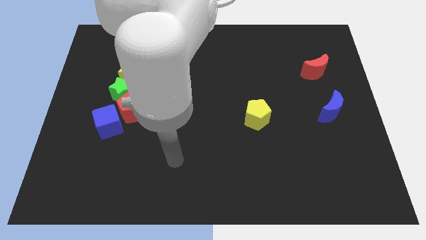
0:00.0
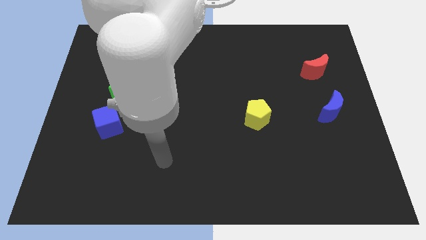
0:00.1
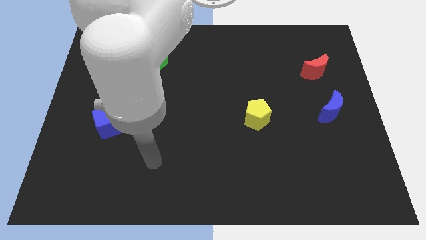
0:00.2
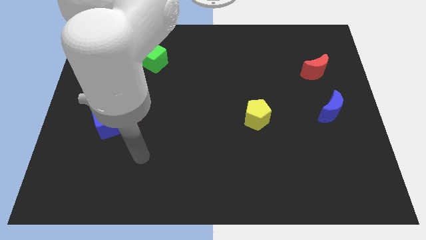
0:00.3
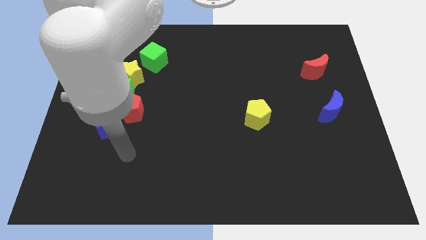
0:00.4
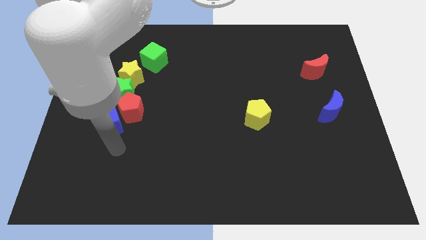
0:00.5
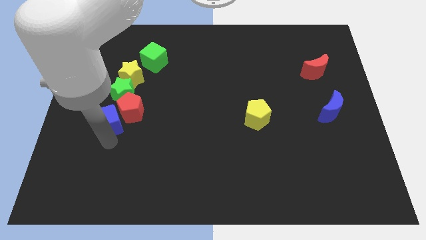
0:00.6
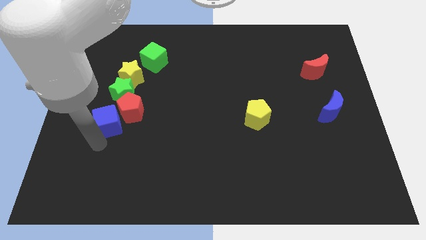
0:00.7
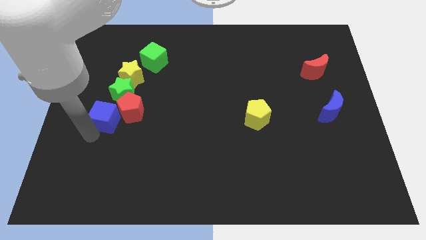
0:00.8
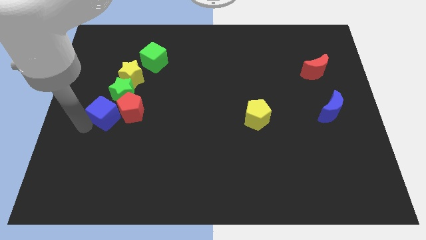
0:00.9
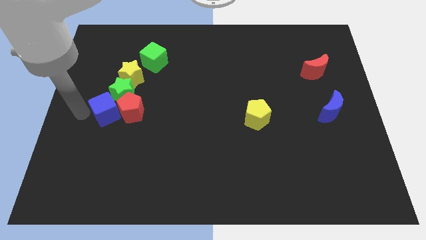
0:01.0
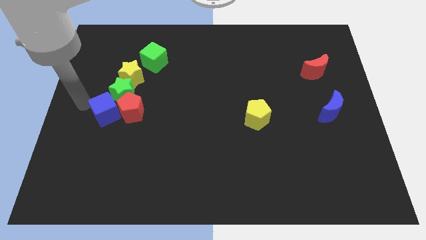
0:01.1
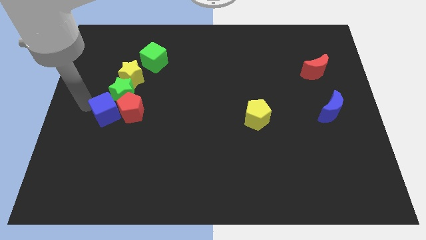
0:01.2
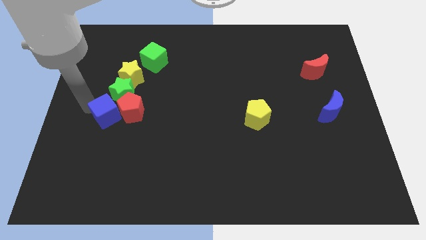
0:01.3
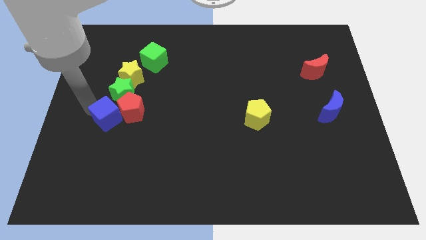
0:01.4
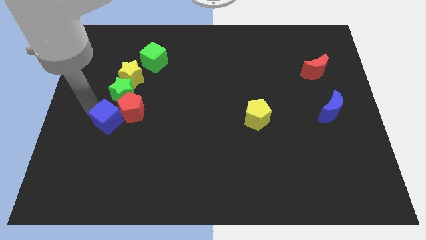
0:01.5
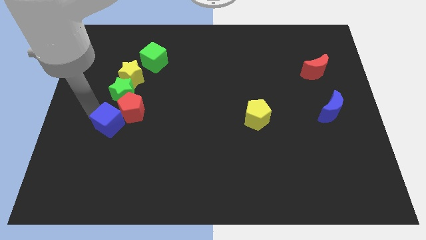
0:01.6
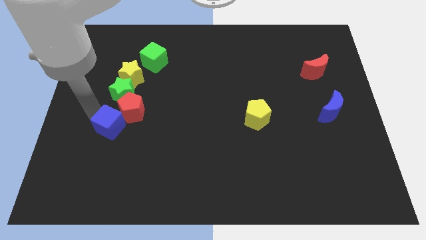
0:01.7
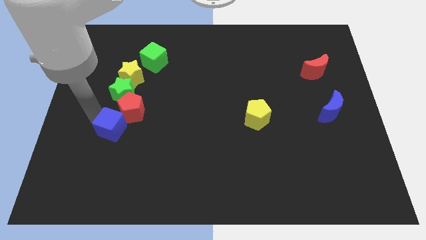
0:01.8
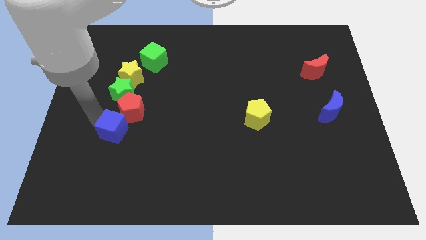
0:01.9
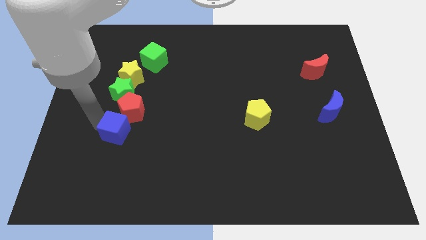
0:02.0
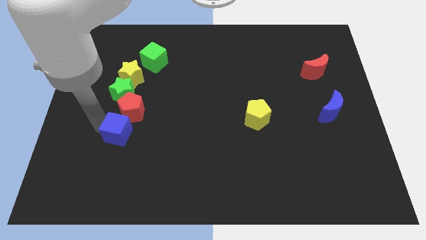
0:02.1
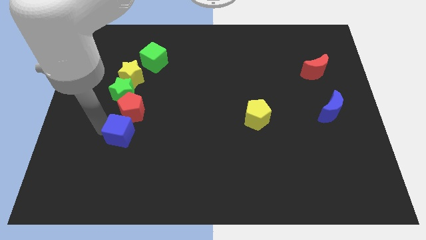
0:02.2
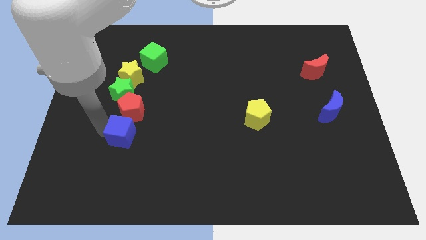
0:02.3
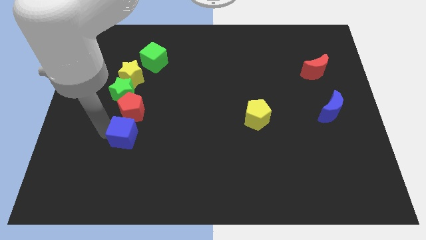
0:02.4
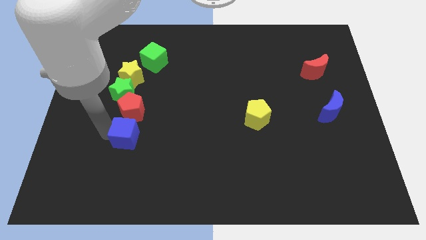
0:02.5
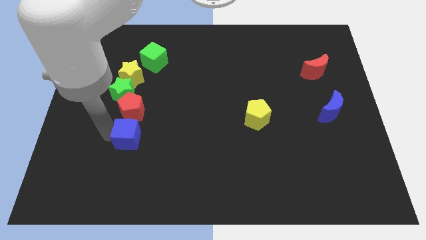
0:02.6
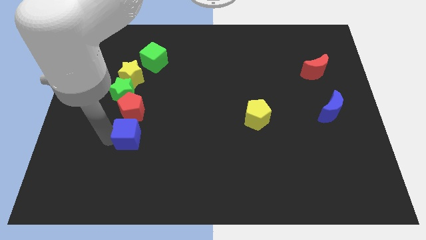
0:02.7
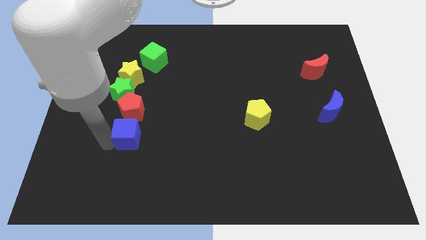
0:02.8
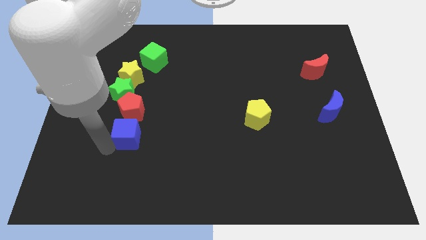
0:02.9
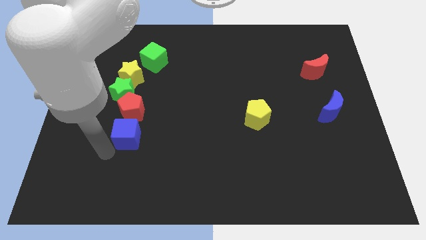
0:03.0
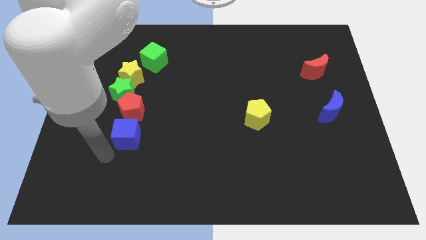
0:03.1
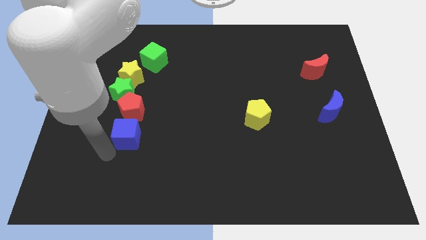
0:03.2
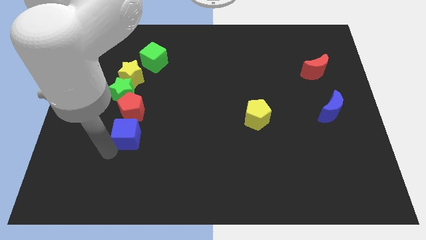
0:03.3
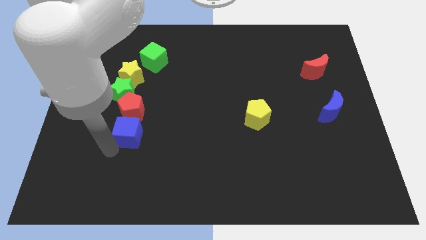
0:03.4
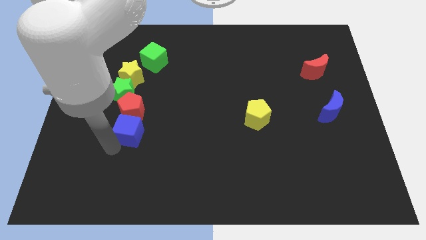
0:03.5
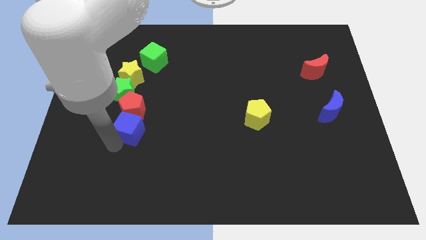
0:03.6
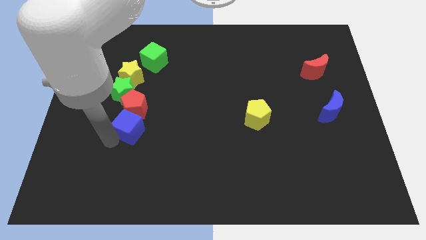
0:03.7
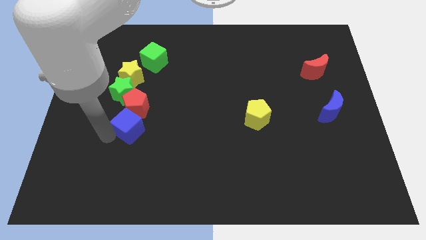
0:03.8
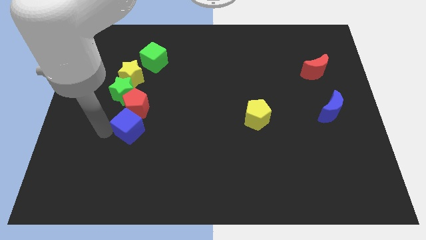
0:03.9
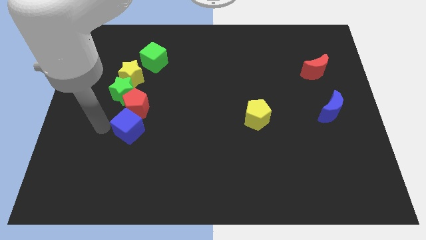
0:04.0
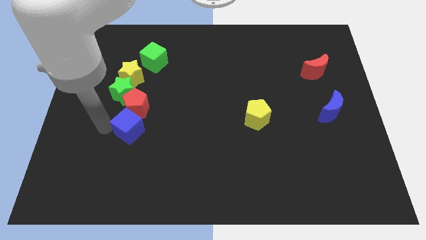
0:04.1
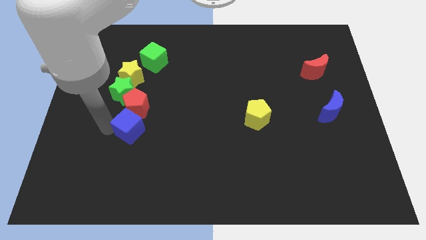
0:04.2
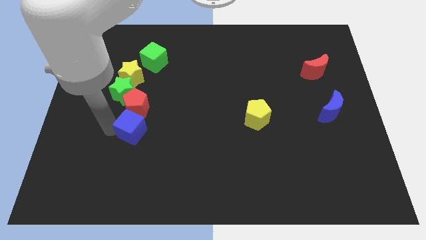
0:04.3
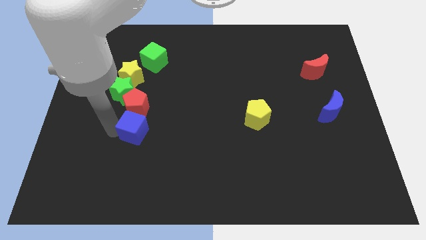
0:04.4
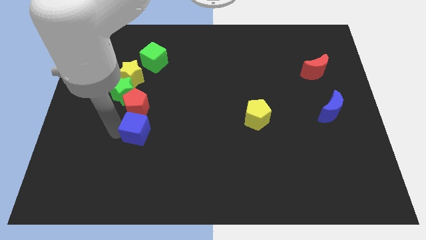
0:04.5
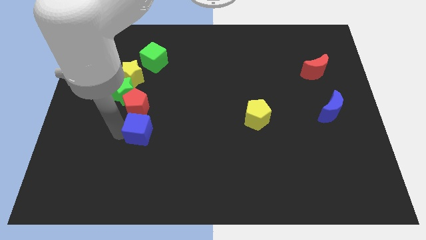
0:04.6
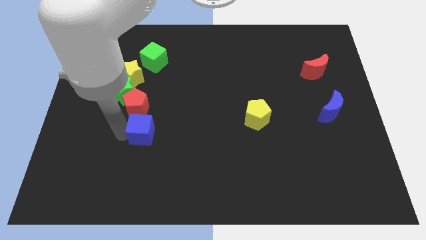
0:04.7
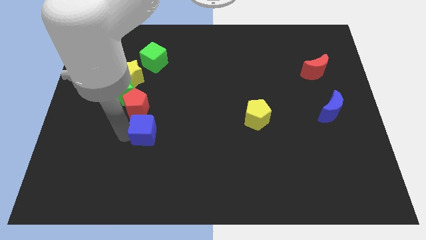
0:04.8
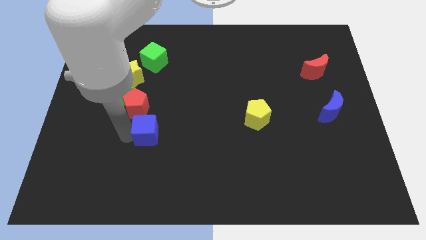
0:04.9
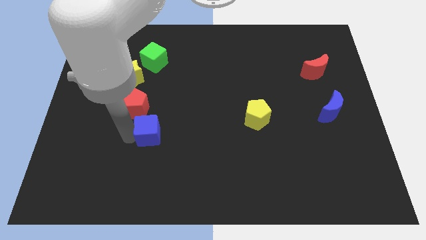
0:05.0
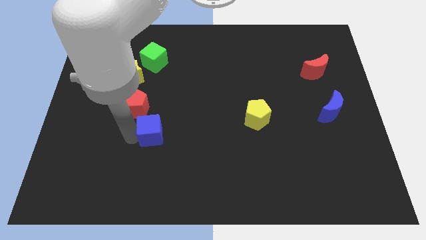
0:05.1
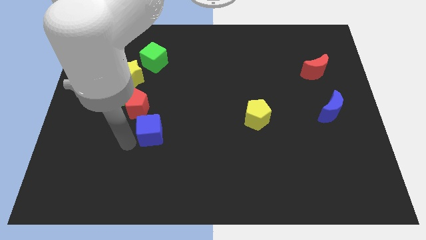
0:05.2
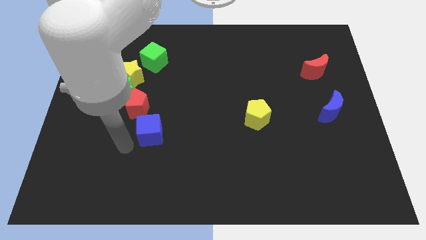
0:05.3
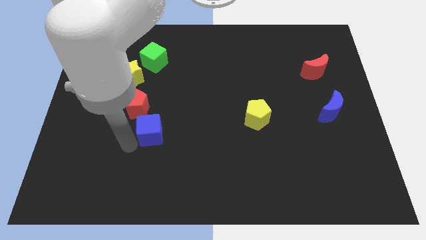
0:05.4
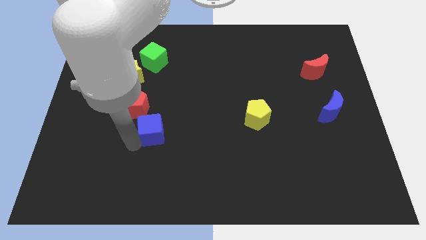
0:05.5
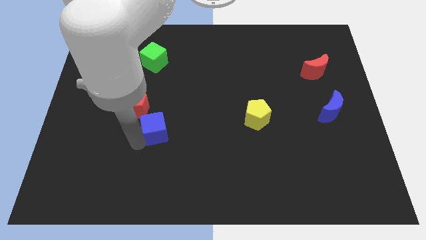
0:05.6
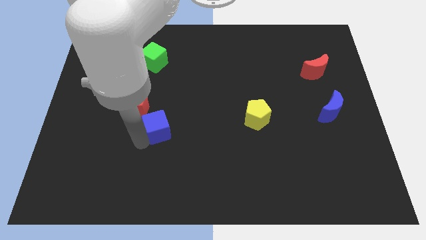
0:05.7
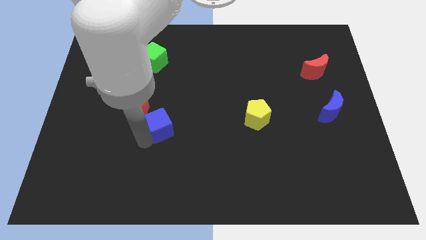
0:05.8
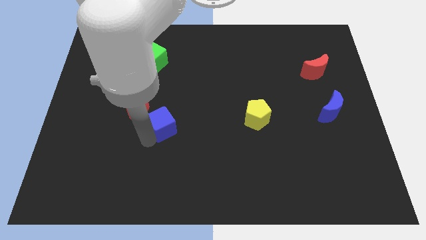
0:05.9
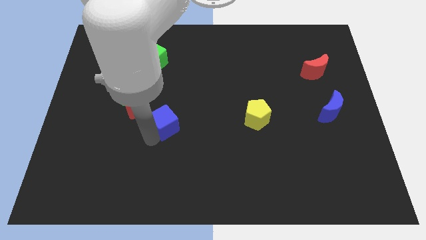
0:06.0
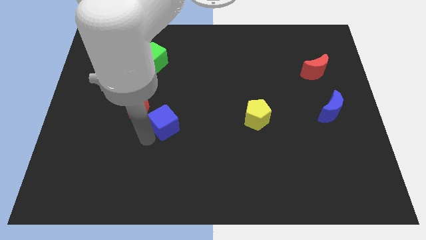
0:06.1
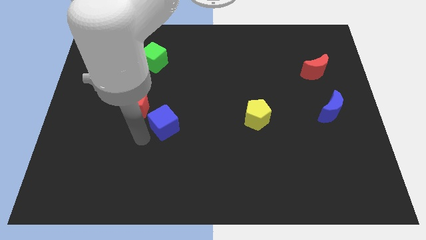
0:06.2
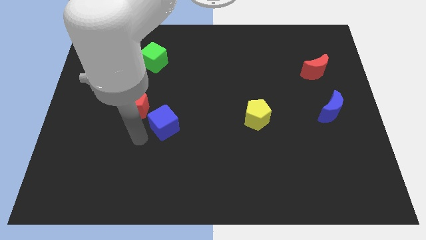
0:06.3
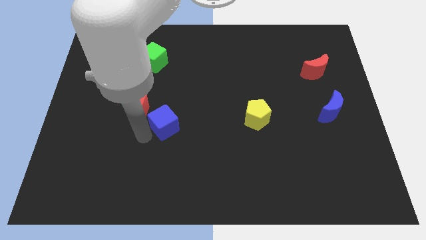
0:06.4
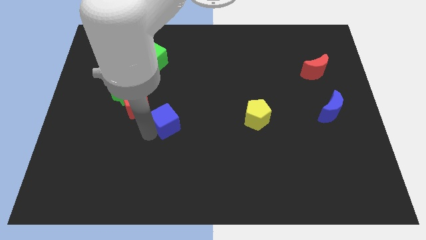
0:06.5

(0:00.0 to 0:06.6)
move the blue cube to the middle of the board
